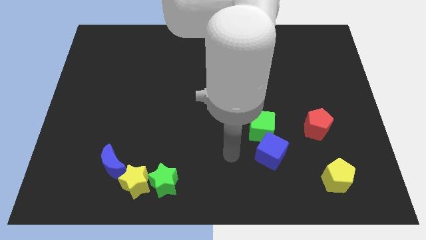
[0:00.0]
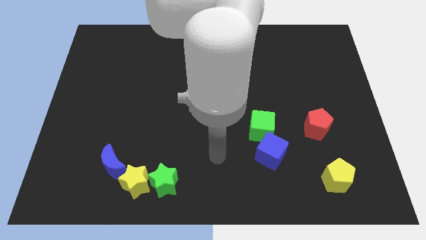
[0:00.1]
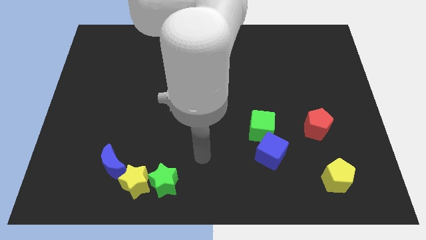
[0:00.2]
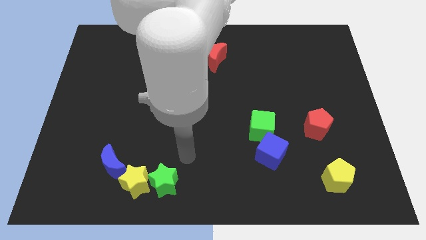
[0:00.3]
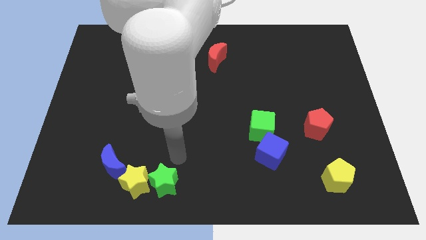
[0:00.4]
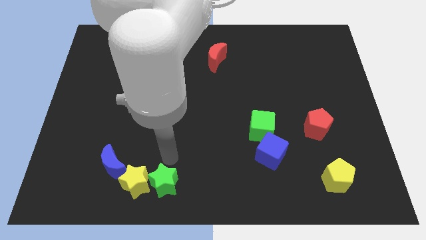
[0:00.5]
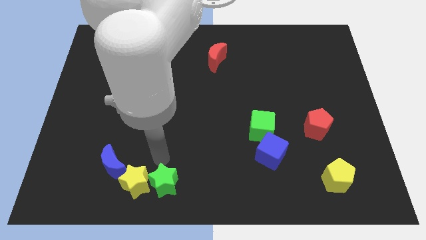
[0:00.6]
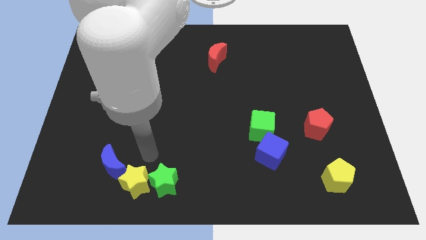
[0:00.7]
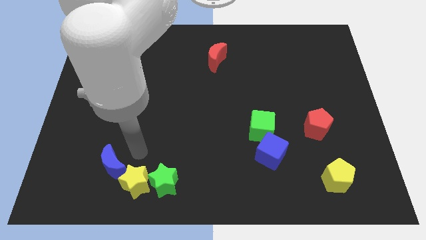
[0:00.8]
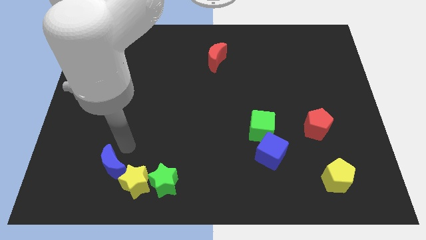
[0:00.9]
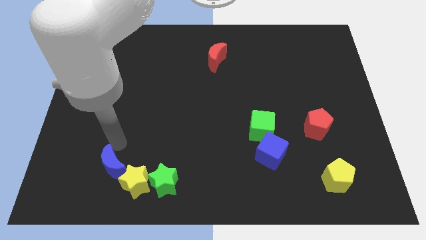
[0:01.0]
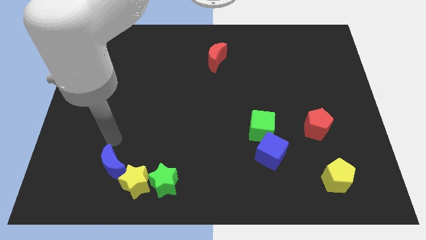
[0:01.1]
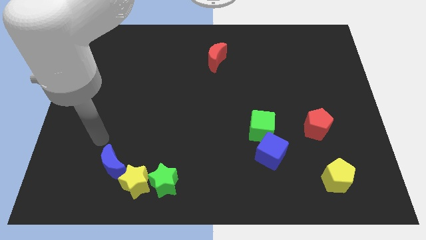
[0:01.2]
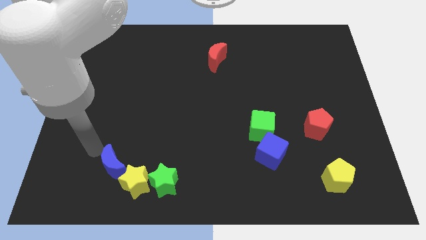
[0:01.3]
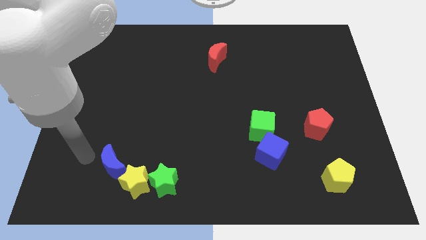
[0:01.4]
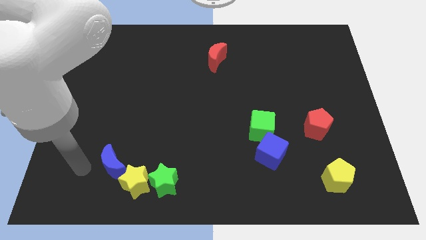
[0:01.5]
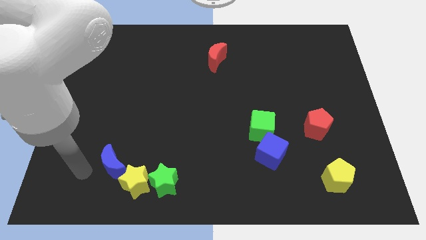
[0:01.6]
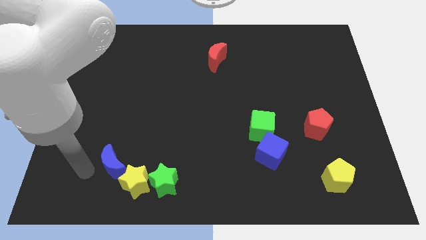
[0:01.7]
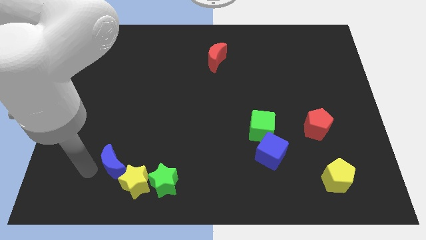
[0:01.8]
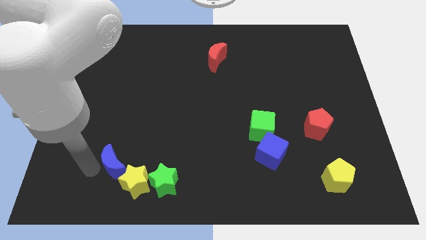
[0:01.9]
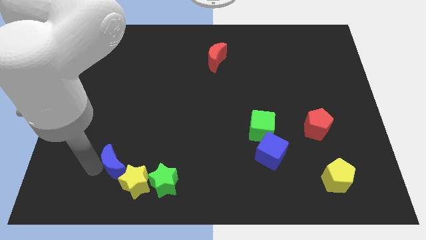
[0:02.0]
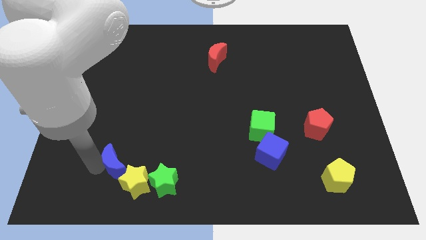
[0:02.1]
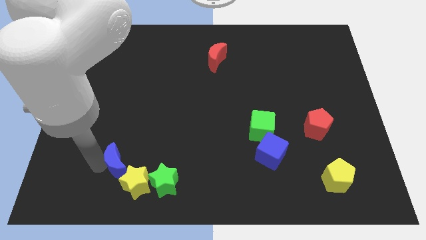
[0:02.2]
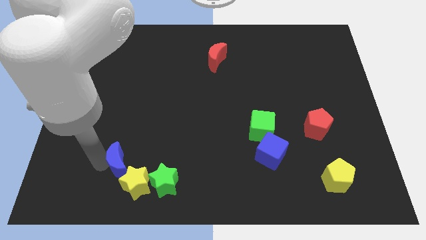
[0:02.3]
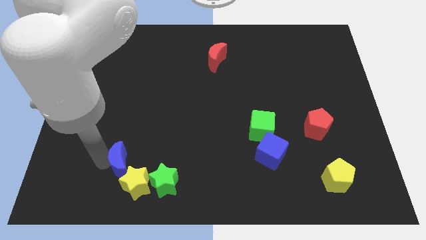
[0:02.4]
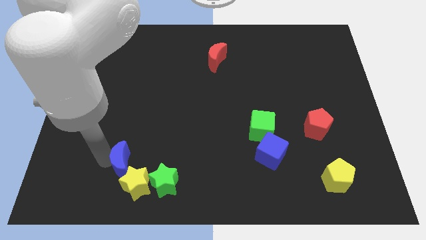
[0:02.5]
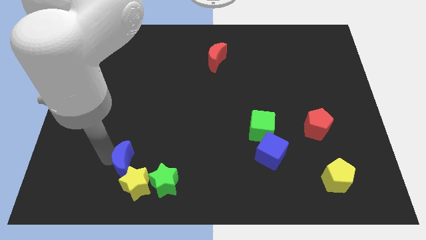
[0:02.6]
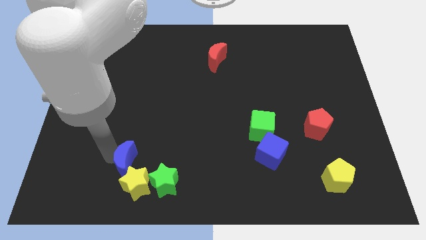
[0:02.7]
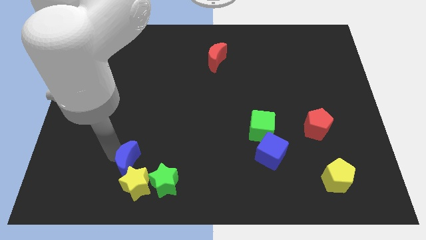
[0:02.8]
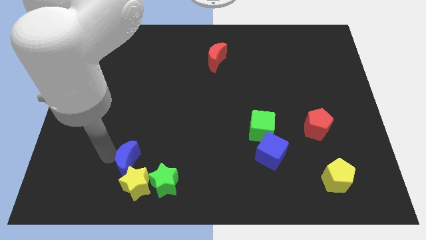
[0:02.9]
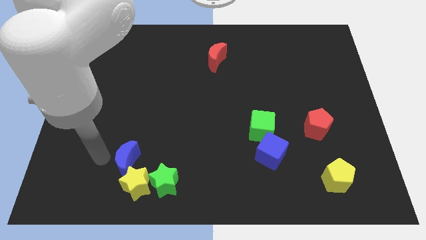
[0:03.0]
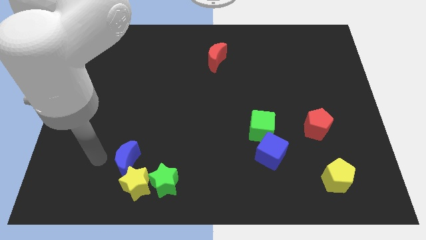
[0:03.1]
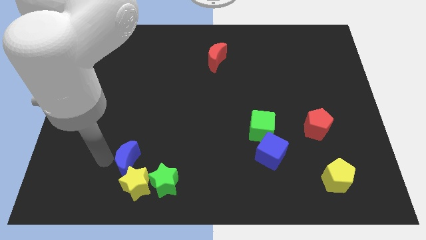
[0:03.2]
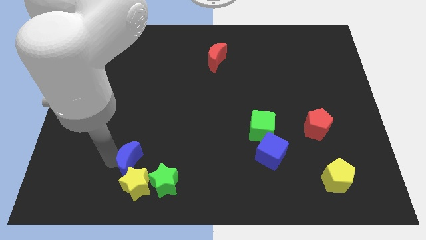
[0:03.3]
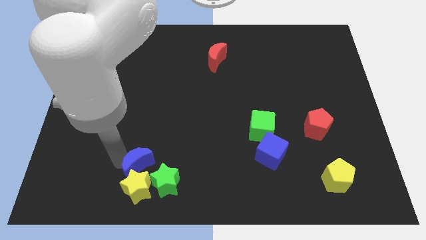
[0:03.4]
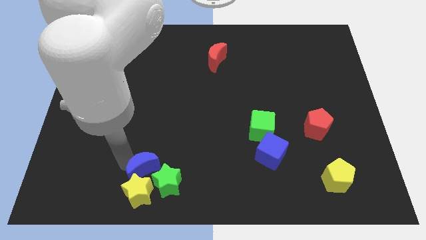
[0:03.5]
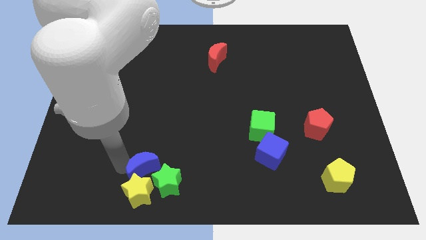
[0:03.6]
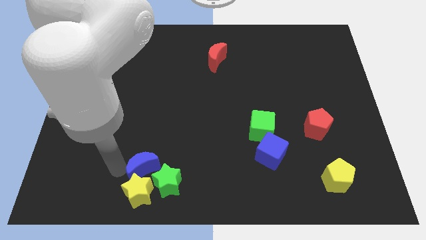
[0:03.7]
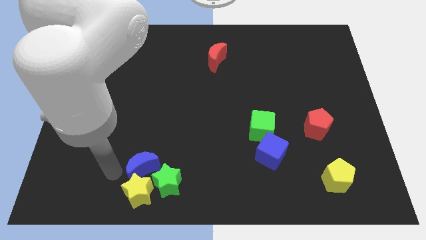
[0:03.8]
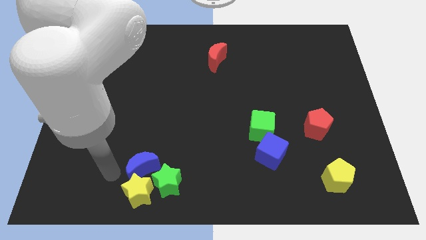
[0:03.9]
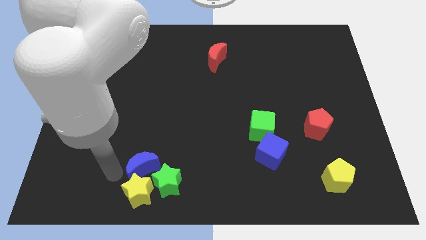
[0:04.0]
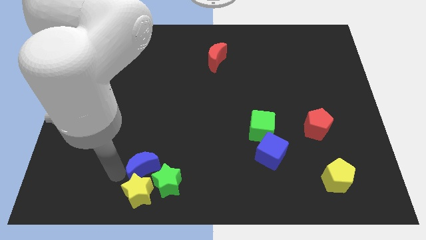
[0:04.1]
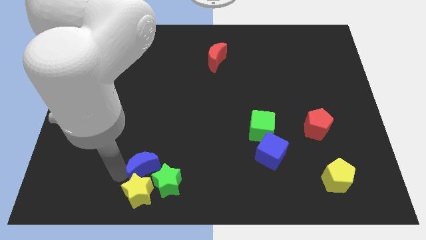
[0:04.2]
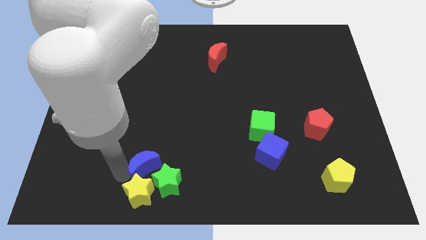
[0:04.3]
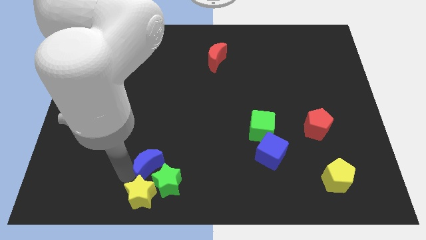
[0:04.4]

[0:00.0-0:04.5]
push the blue moon a little bit right

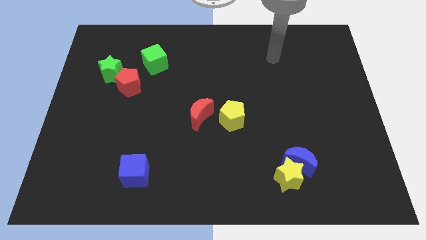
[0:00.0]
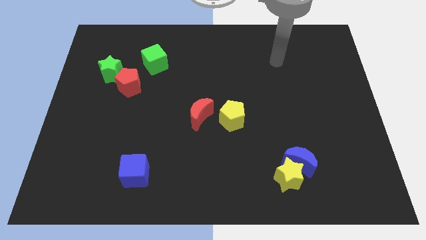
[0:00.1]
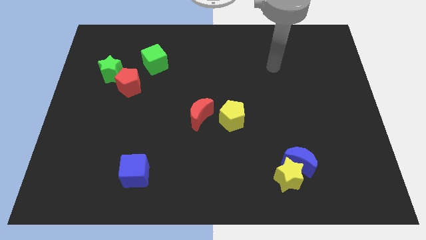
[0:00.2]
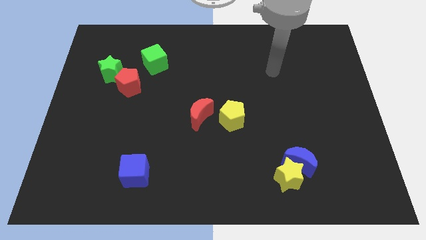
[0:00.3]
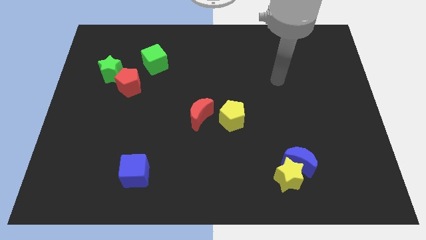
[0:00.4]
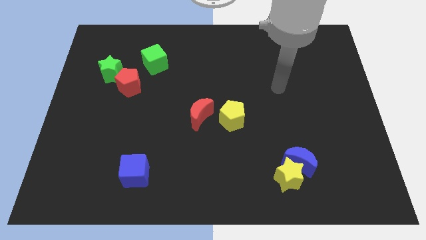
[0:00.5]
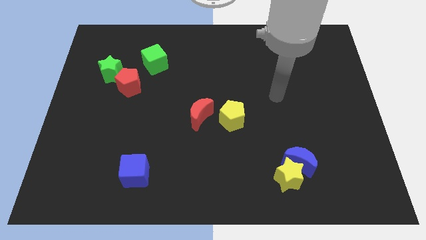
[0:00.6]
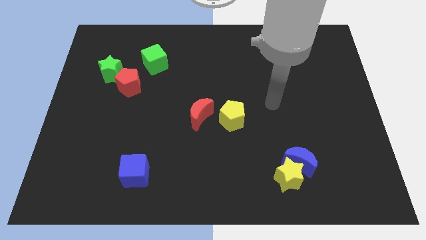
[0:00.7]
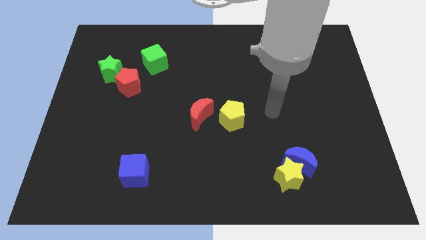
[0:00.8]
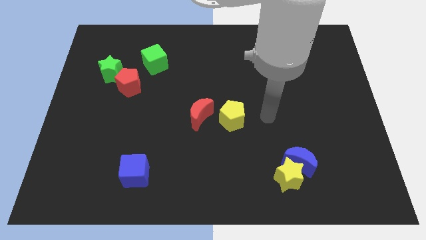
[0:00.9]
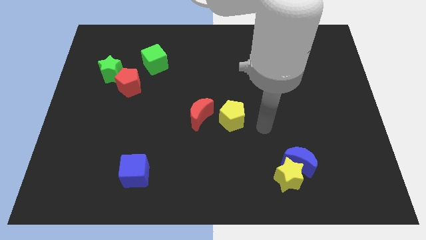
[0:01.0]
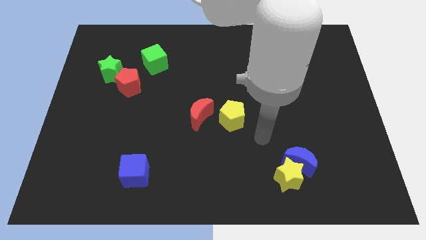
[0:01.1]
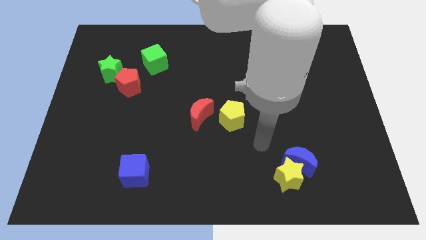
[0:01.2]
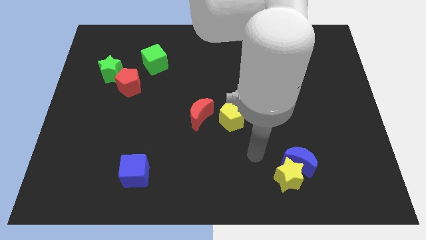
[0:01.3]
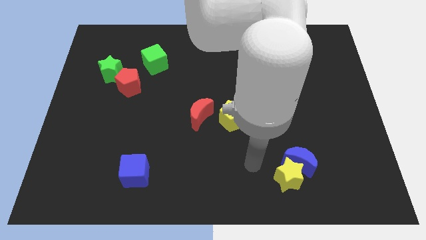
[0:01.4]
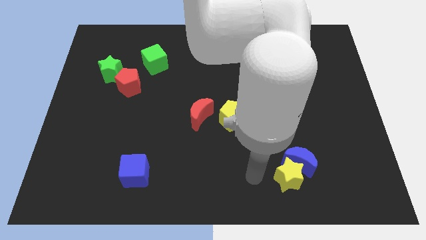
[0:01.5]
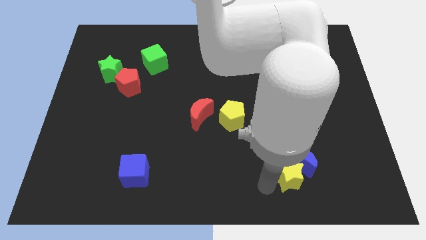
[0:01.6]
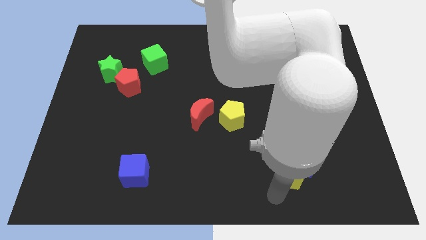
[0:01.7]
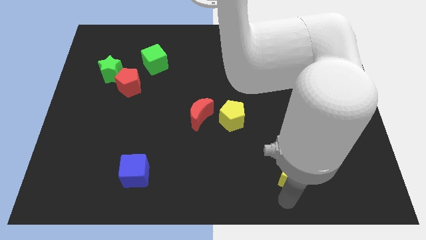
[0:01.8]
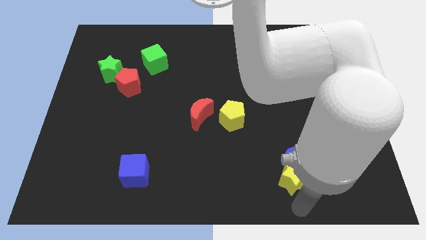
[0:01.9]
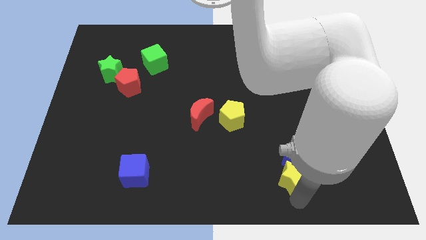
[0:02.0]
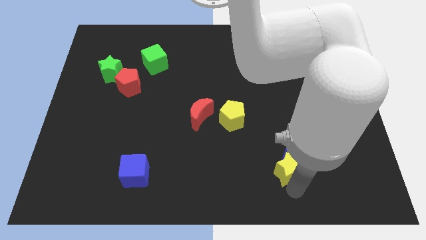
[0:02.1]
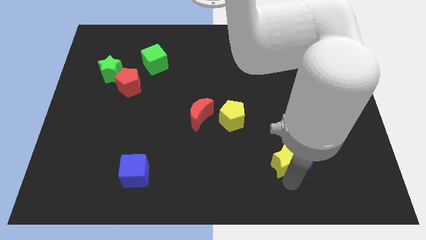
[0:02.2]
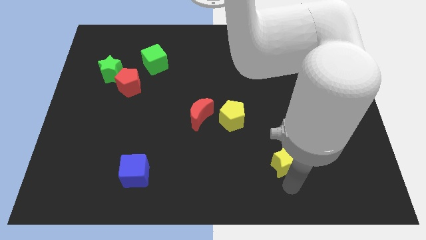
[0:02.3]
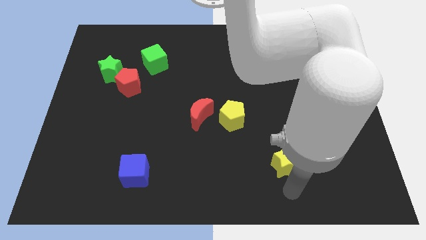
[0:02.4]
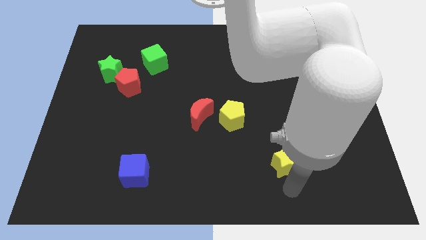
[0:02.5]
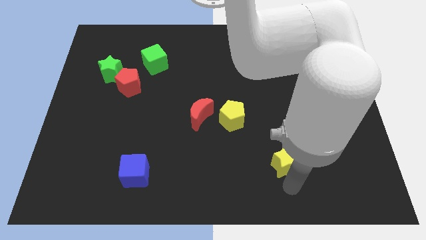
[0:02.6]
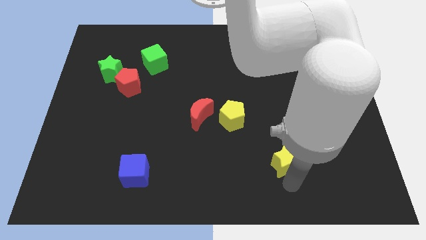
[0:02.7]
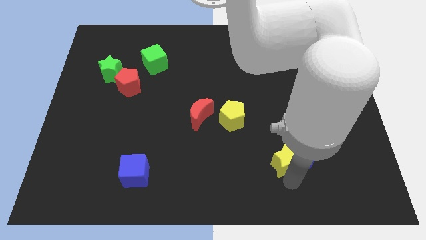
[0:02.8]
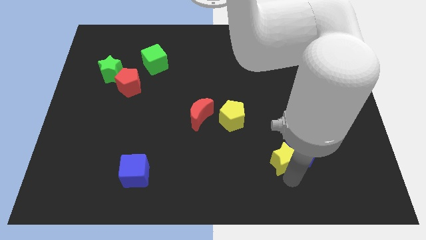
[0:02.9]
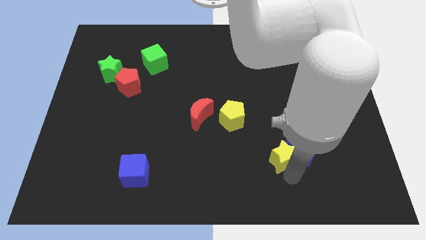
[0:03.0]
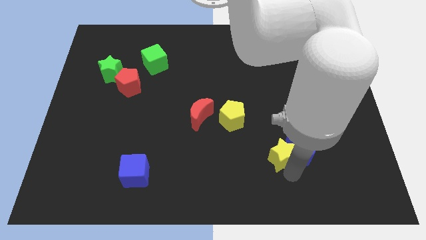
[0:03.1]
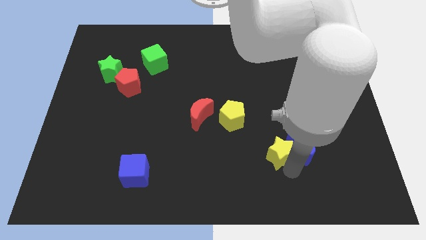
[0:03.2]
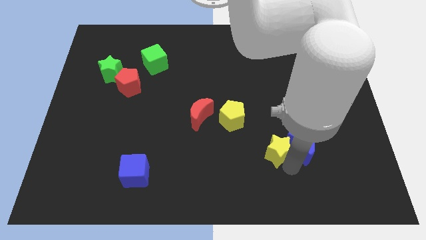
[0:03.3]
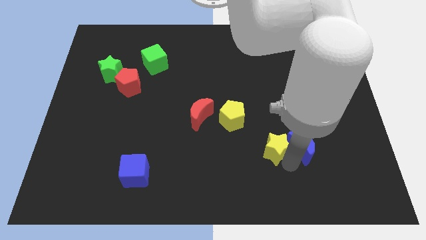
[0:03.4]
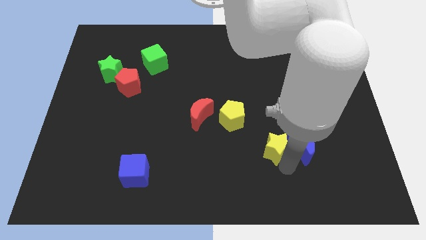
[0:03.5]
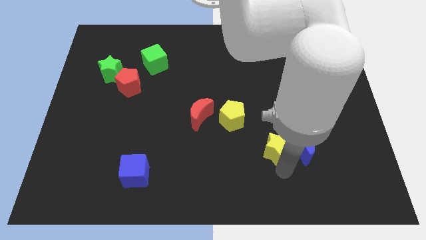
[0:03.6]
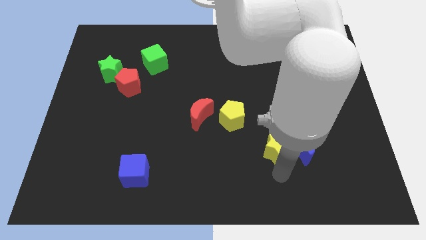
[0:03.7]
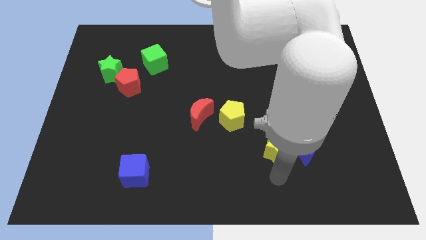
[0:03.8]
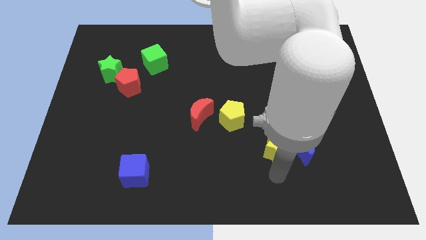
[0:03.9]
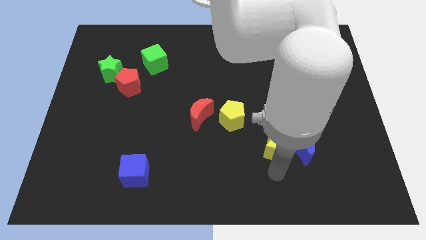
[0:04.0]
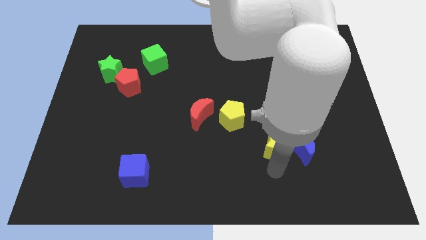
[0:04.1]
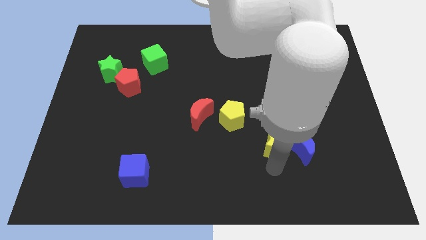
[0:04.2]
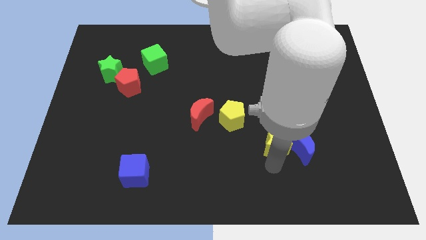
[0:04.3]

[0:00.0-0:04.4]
move the yellow star a little up
